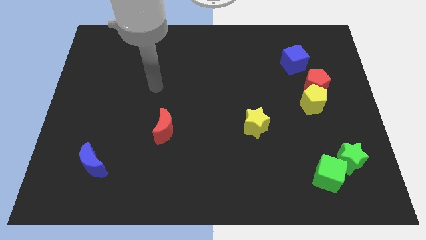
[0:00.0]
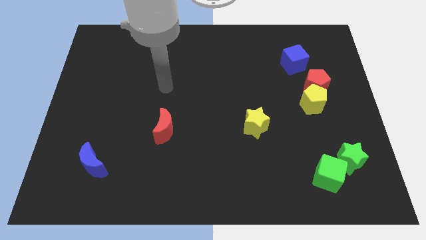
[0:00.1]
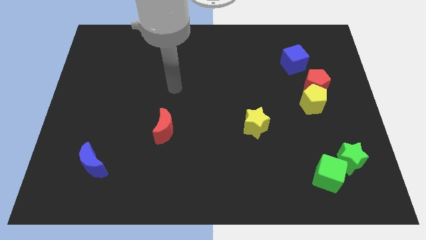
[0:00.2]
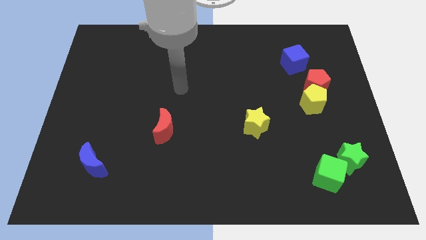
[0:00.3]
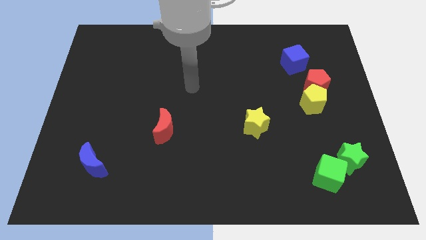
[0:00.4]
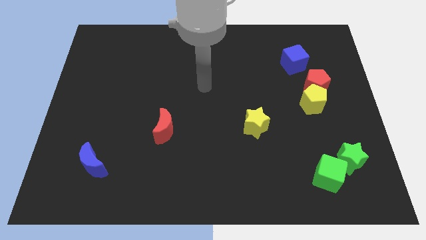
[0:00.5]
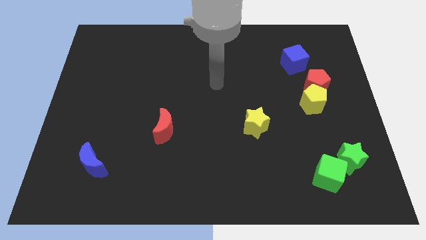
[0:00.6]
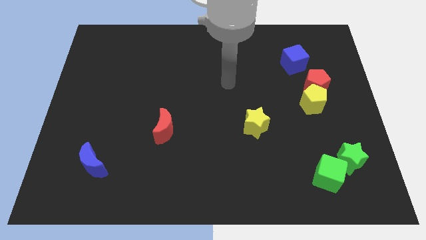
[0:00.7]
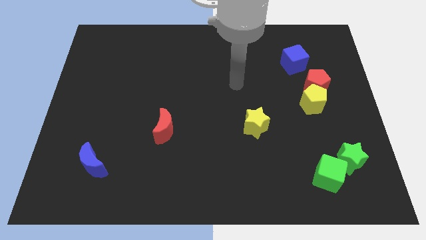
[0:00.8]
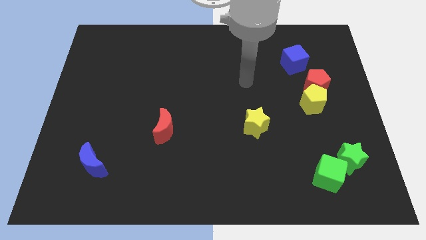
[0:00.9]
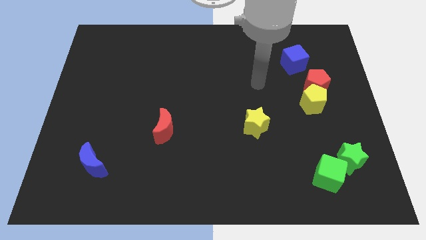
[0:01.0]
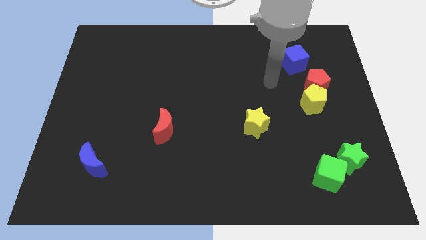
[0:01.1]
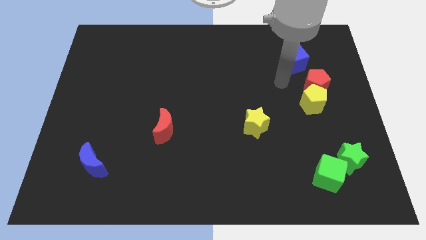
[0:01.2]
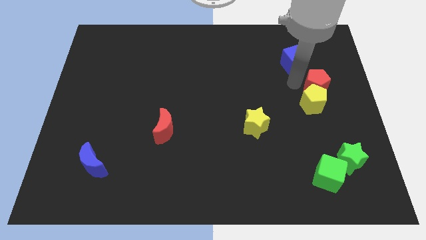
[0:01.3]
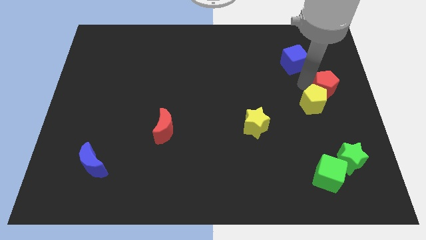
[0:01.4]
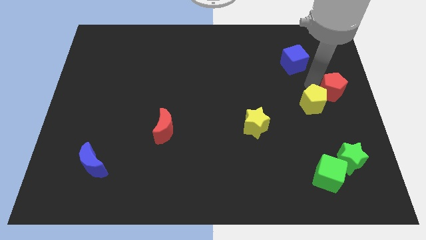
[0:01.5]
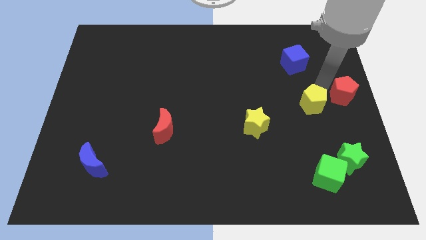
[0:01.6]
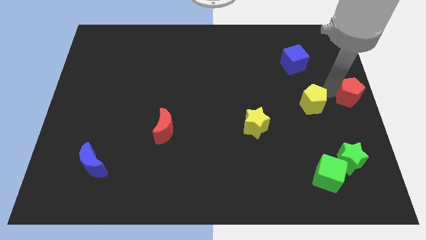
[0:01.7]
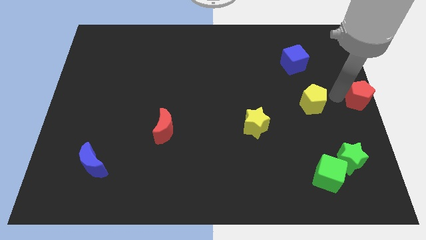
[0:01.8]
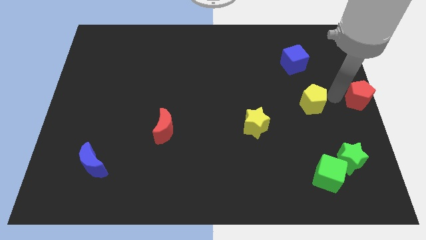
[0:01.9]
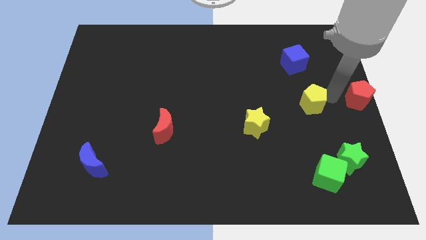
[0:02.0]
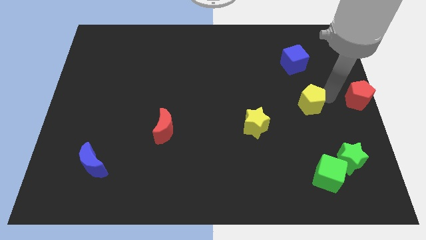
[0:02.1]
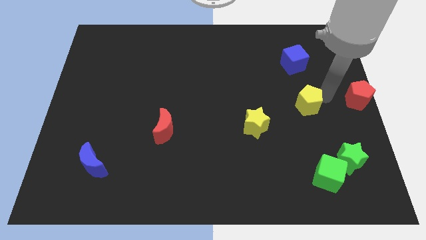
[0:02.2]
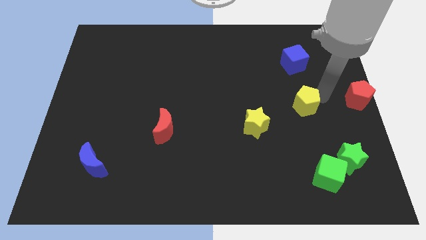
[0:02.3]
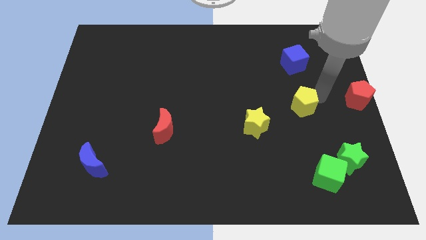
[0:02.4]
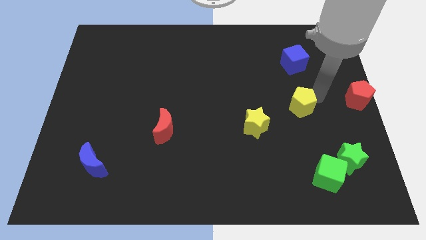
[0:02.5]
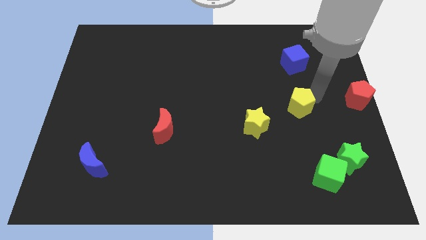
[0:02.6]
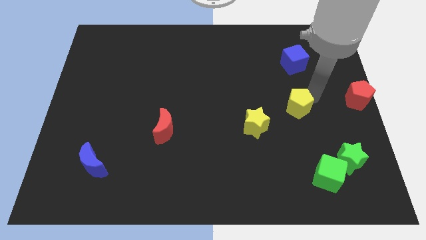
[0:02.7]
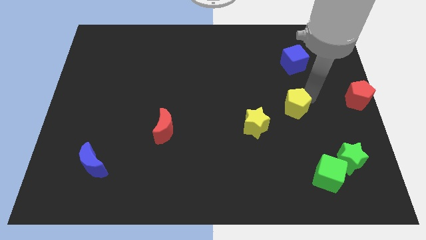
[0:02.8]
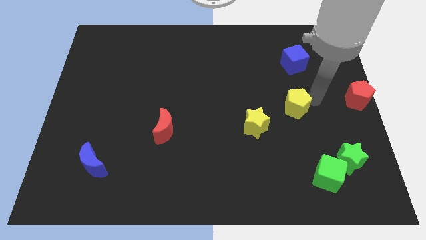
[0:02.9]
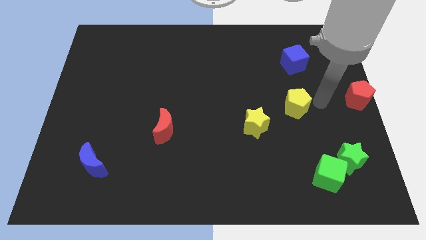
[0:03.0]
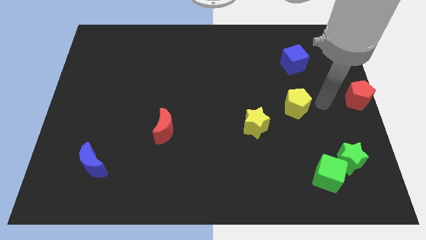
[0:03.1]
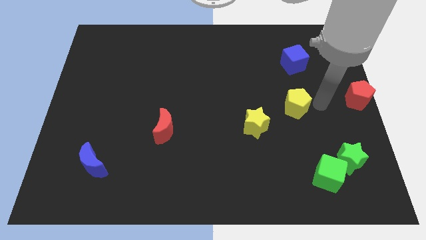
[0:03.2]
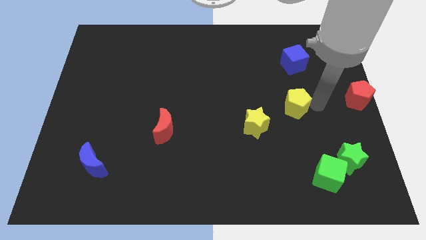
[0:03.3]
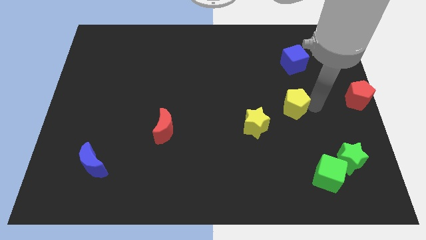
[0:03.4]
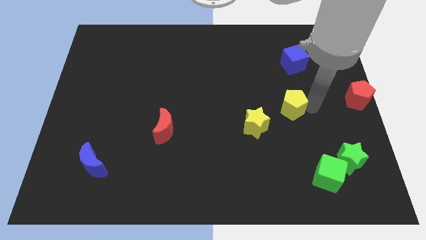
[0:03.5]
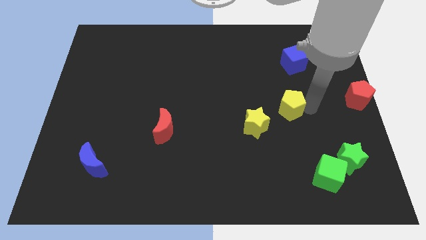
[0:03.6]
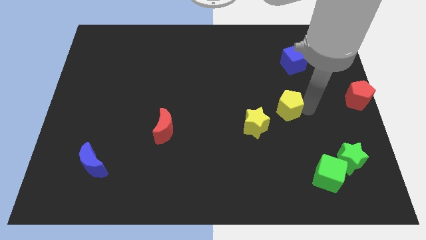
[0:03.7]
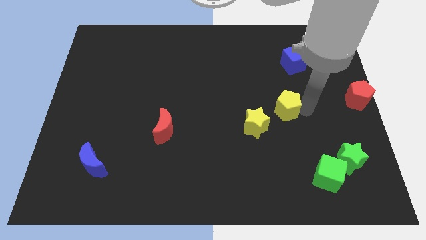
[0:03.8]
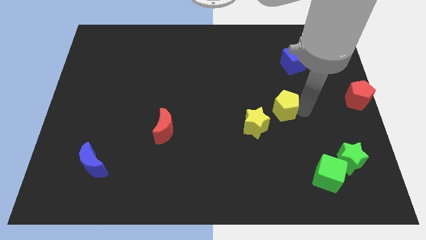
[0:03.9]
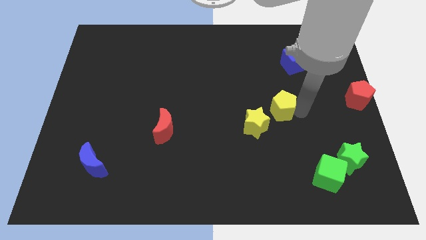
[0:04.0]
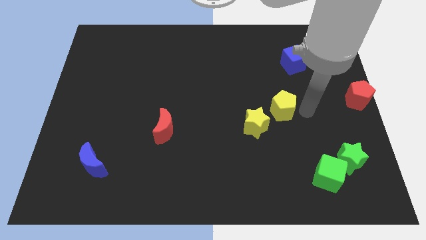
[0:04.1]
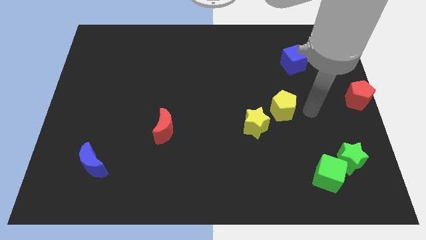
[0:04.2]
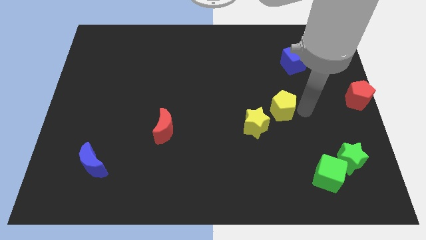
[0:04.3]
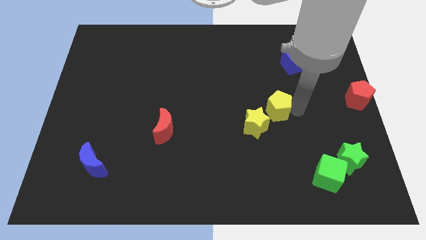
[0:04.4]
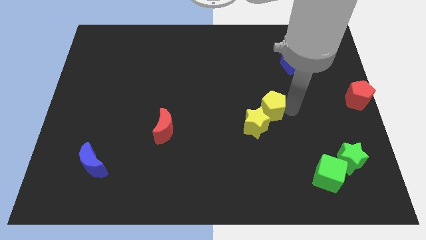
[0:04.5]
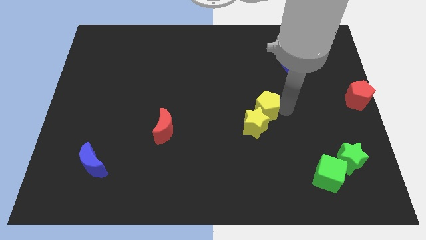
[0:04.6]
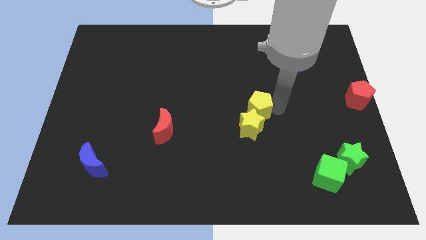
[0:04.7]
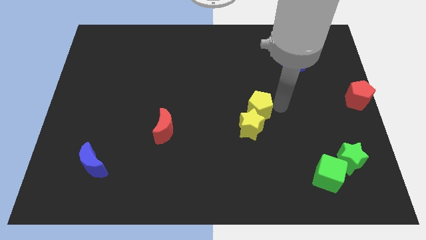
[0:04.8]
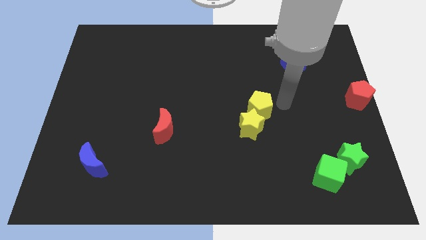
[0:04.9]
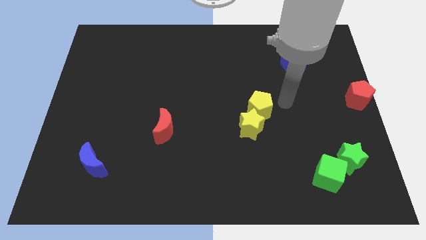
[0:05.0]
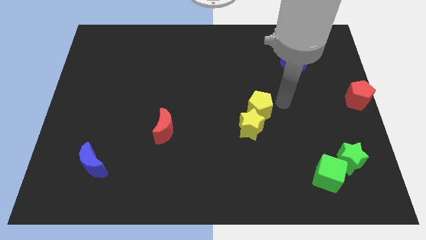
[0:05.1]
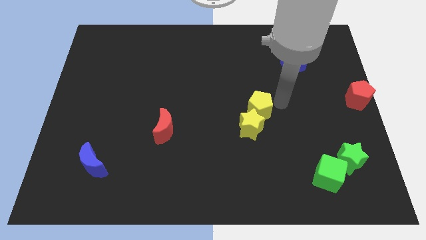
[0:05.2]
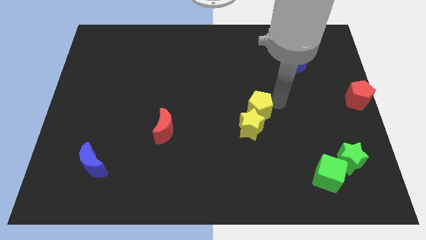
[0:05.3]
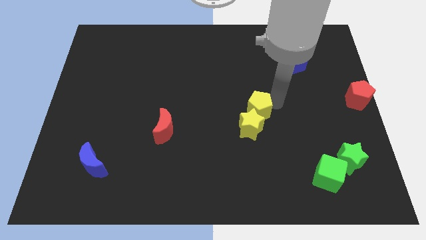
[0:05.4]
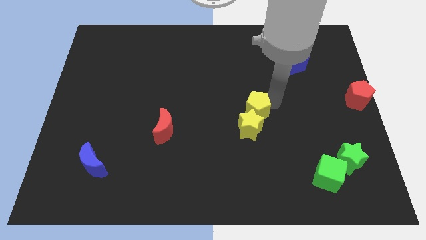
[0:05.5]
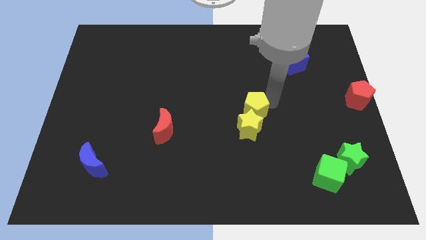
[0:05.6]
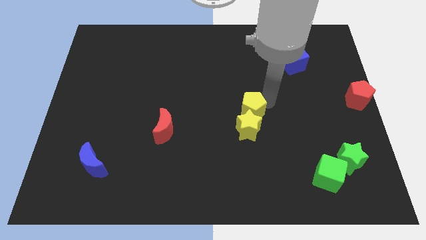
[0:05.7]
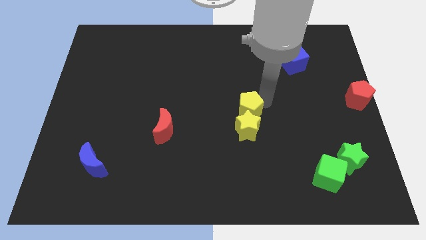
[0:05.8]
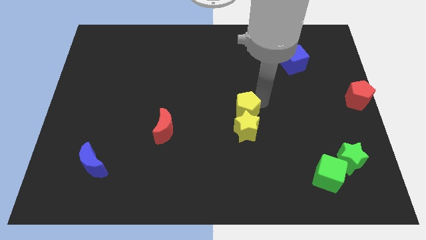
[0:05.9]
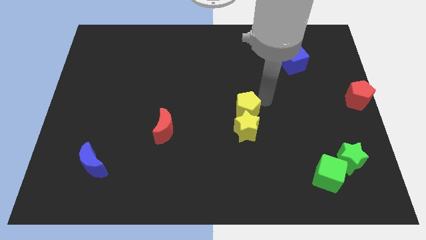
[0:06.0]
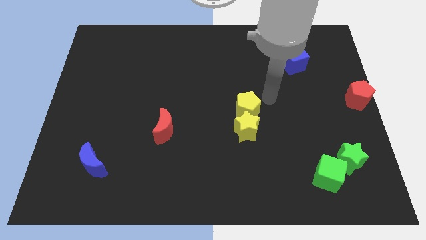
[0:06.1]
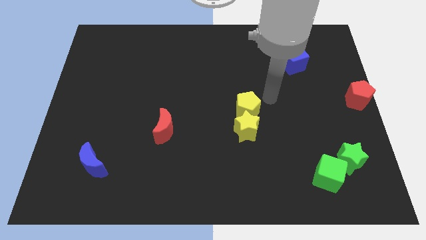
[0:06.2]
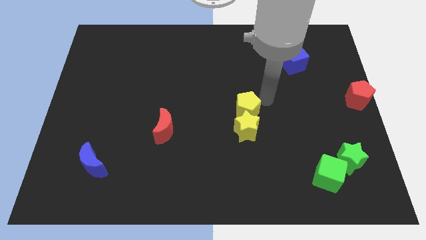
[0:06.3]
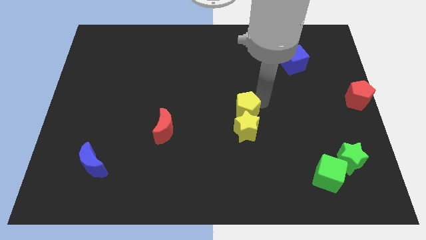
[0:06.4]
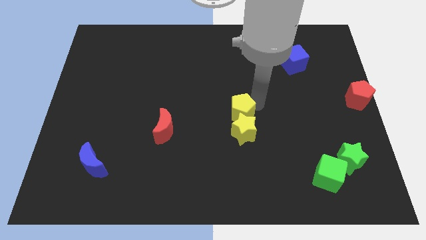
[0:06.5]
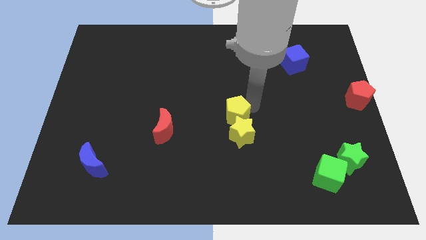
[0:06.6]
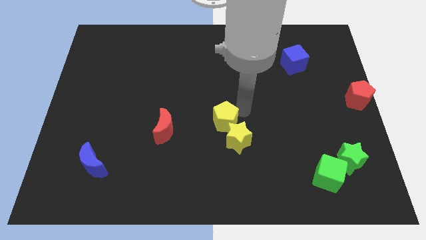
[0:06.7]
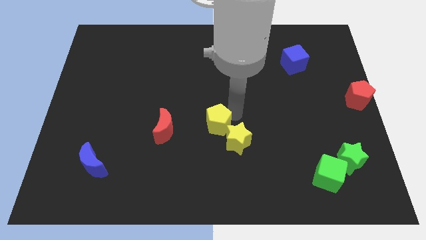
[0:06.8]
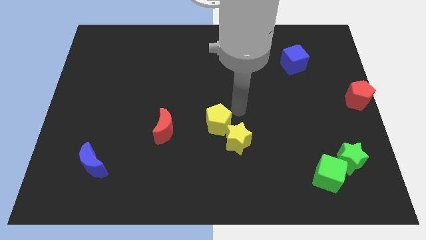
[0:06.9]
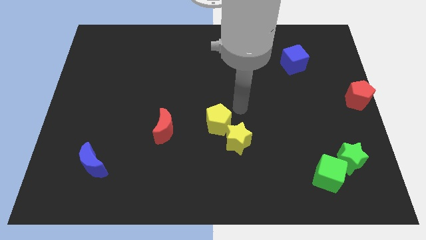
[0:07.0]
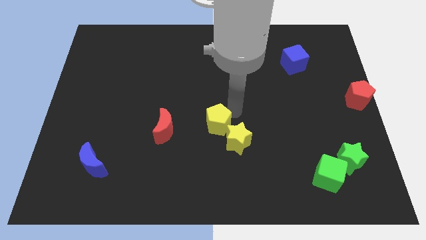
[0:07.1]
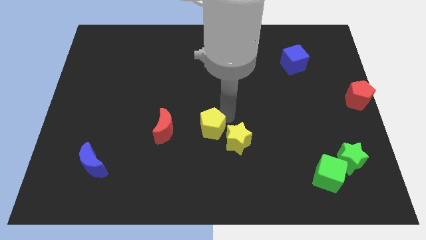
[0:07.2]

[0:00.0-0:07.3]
push the yellow pentagon left of the yellow star
